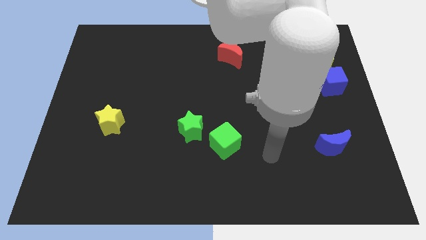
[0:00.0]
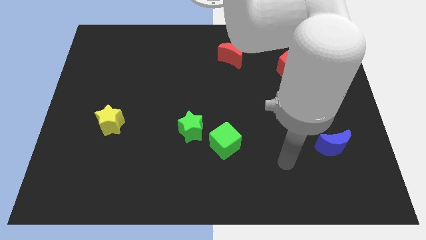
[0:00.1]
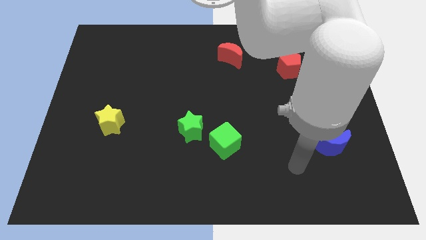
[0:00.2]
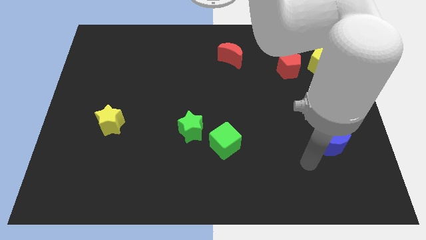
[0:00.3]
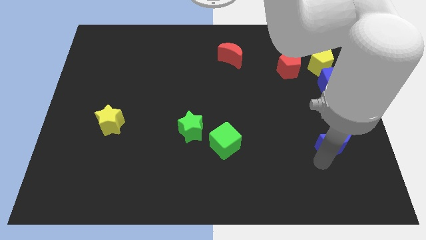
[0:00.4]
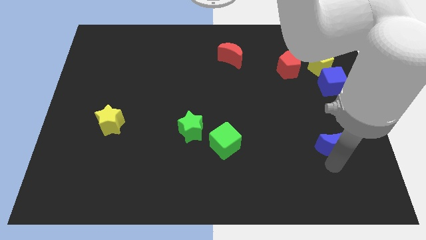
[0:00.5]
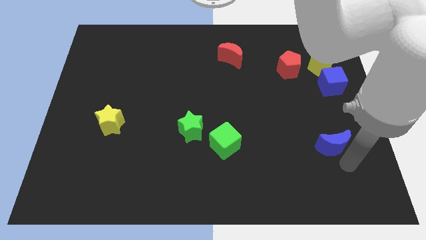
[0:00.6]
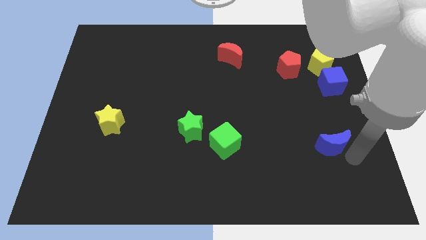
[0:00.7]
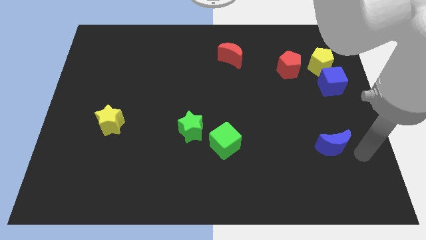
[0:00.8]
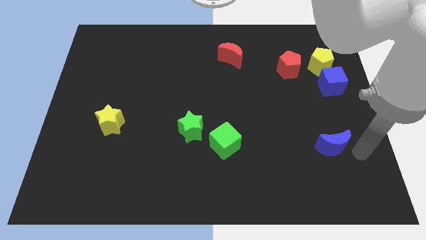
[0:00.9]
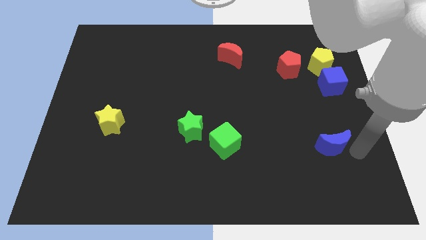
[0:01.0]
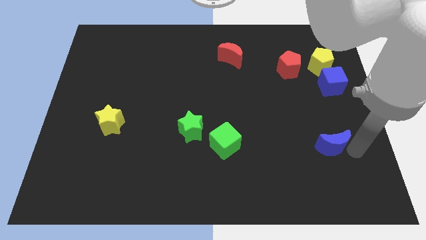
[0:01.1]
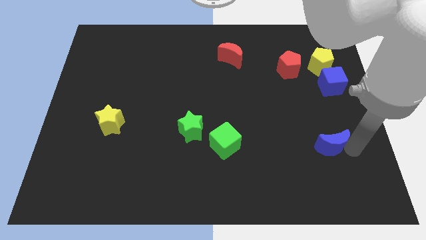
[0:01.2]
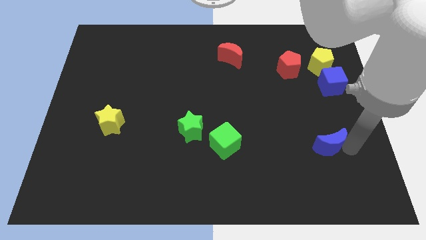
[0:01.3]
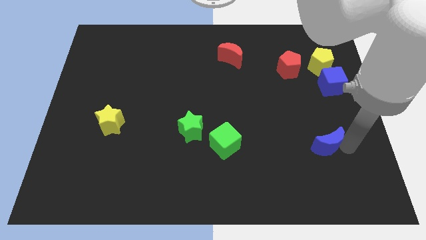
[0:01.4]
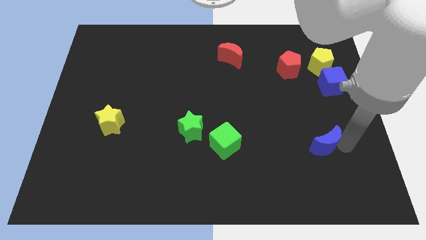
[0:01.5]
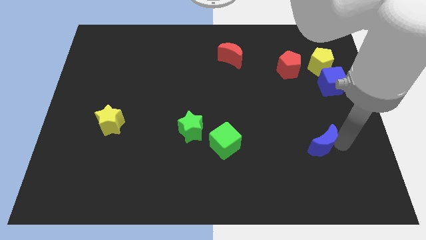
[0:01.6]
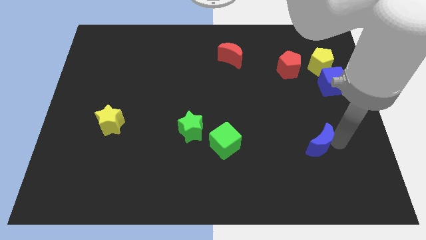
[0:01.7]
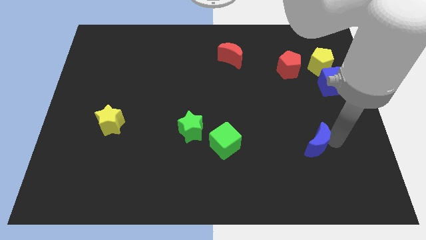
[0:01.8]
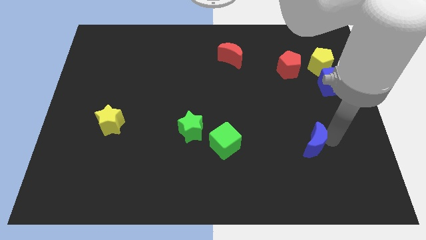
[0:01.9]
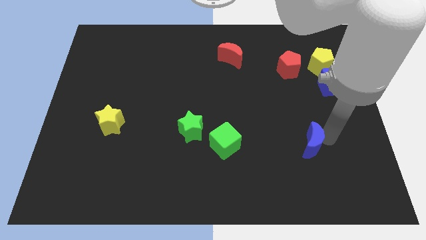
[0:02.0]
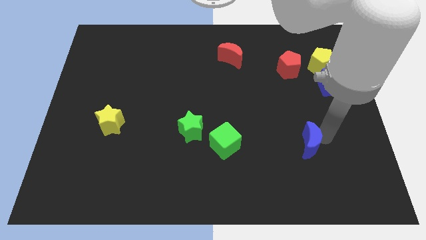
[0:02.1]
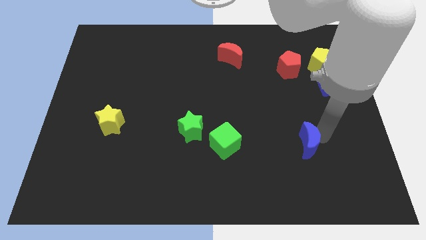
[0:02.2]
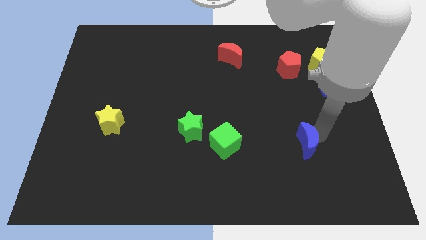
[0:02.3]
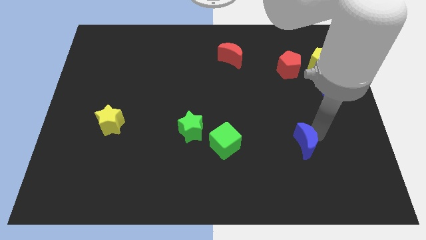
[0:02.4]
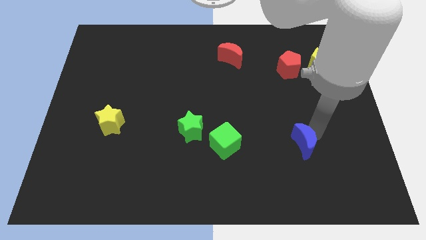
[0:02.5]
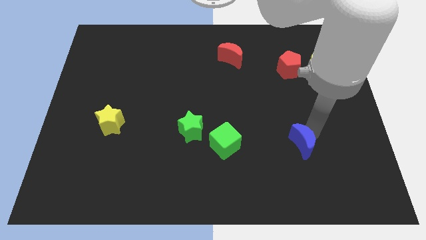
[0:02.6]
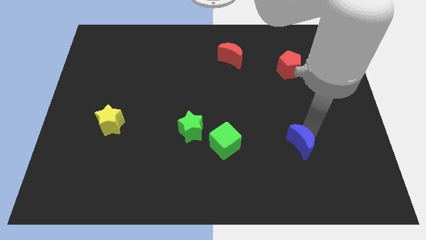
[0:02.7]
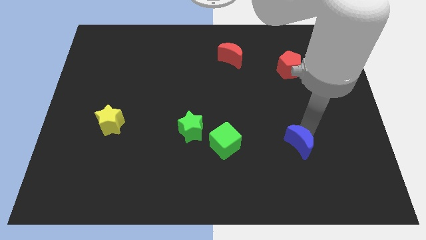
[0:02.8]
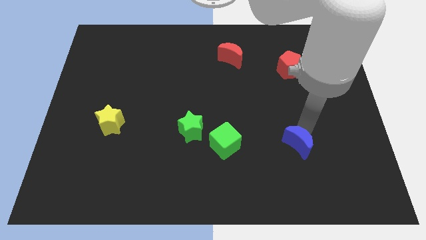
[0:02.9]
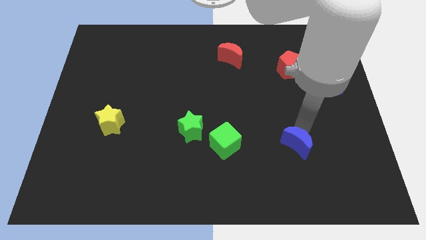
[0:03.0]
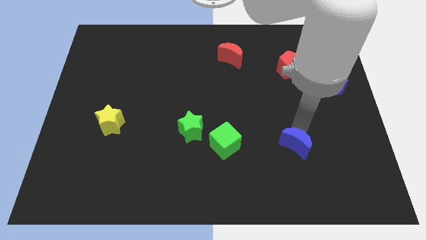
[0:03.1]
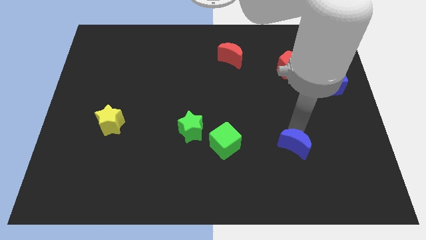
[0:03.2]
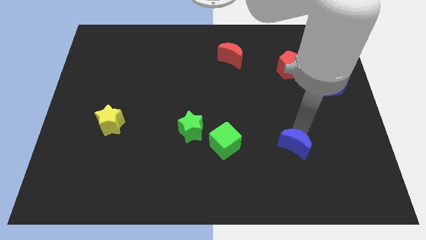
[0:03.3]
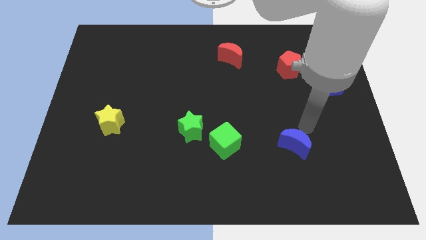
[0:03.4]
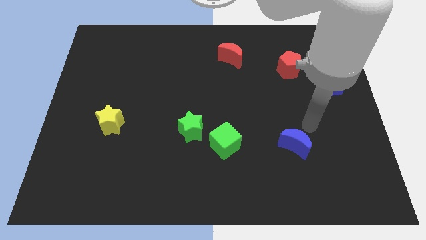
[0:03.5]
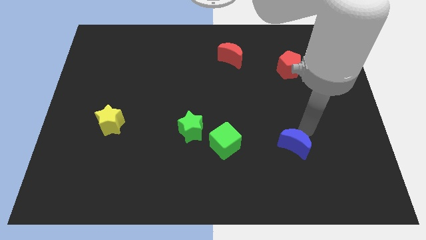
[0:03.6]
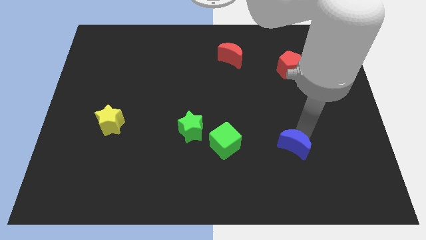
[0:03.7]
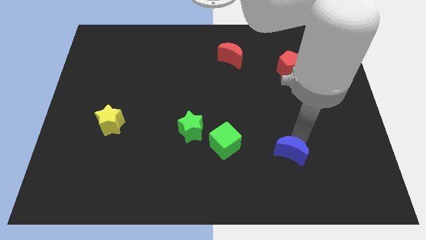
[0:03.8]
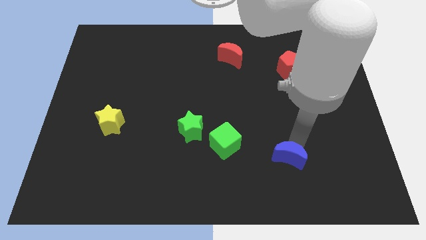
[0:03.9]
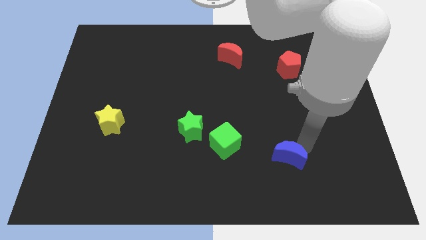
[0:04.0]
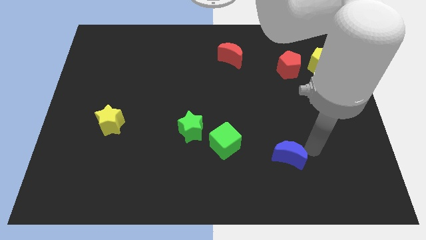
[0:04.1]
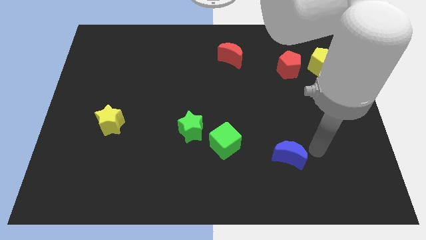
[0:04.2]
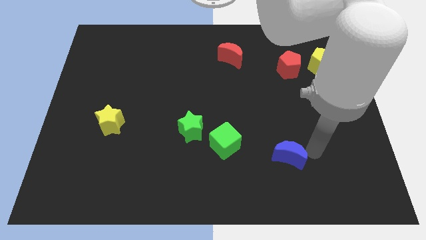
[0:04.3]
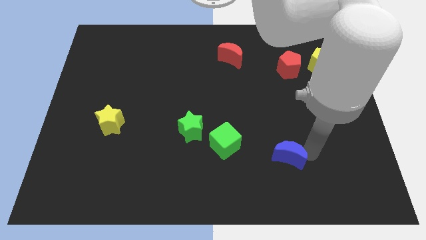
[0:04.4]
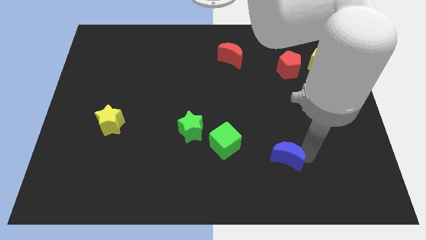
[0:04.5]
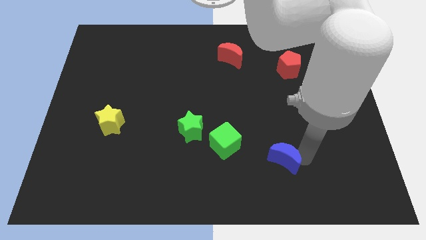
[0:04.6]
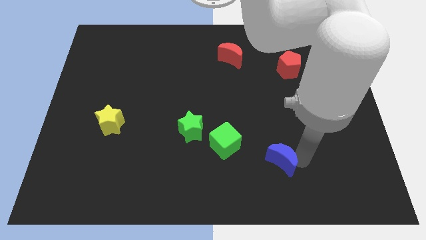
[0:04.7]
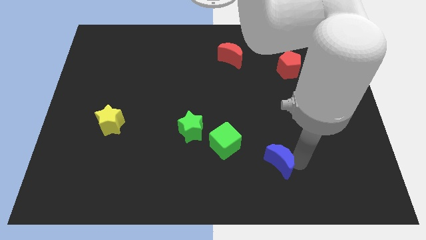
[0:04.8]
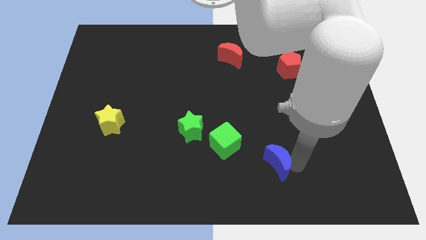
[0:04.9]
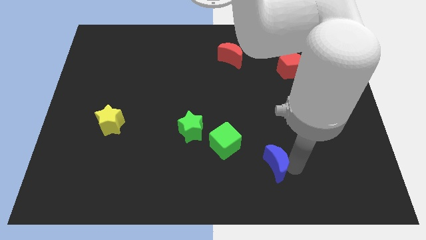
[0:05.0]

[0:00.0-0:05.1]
slide the blue moon to the bottom right of the green cube

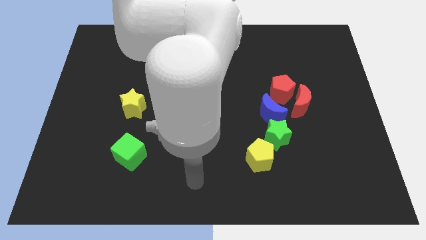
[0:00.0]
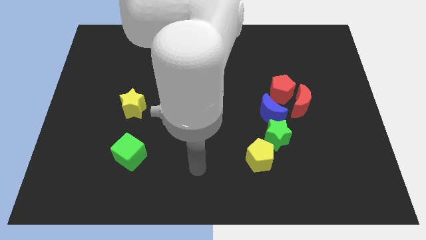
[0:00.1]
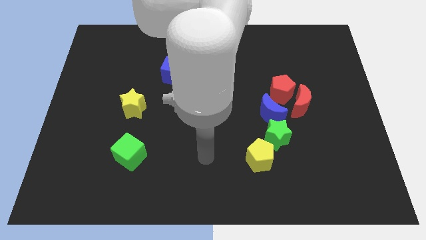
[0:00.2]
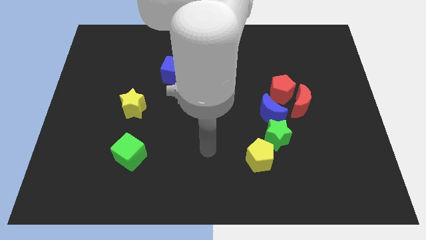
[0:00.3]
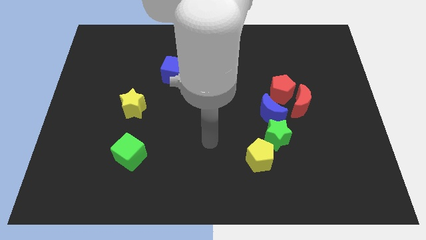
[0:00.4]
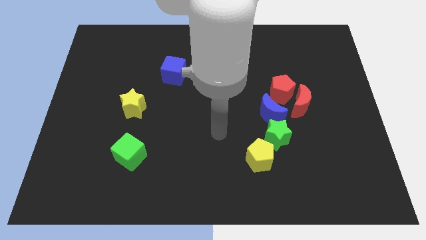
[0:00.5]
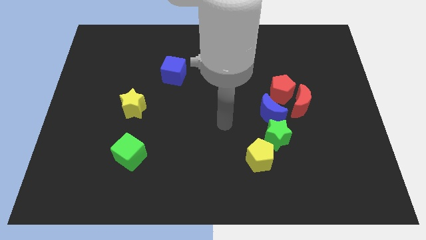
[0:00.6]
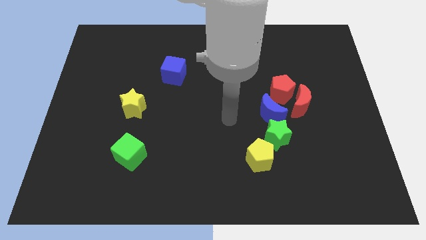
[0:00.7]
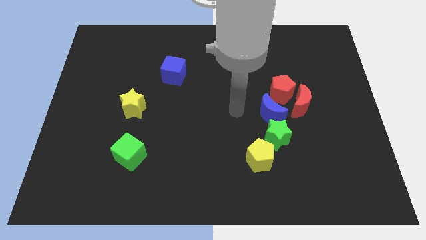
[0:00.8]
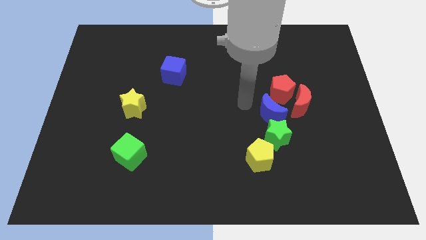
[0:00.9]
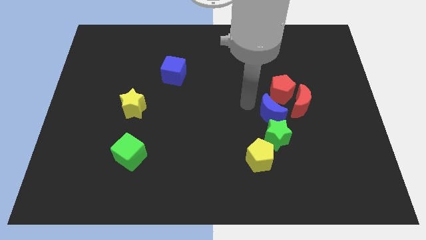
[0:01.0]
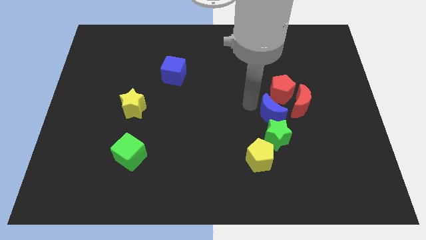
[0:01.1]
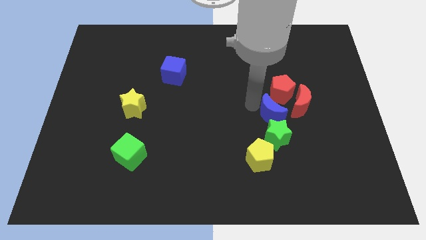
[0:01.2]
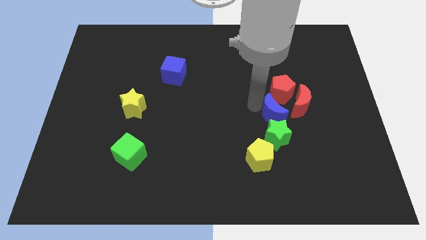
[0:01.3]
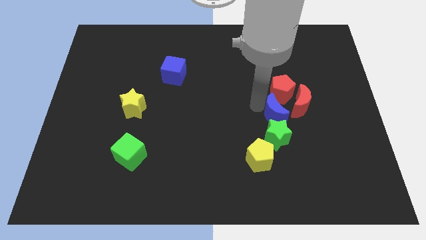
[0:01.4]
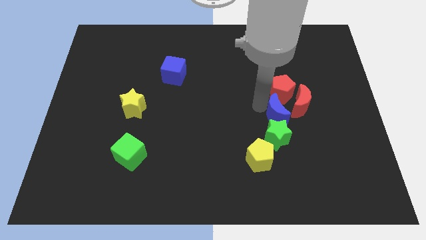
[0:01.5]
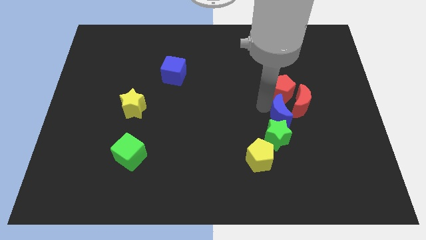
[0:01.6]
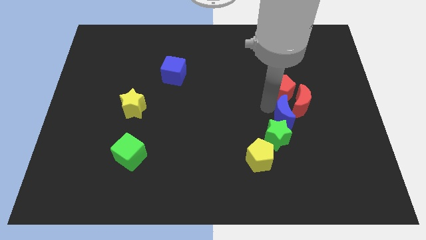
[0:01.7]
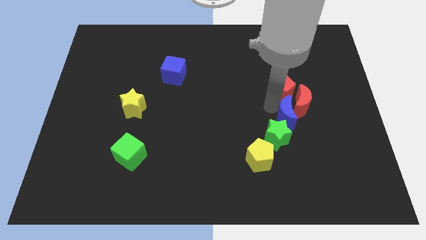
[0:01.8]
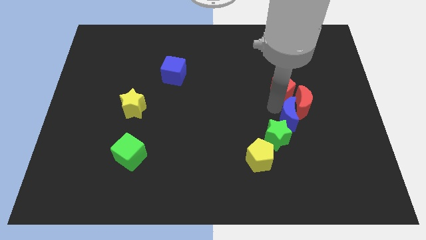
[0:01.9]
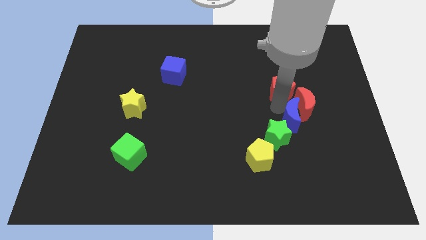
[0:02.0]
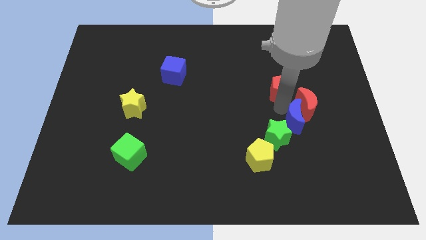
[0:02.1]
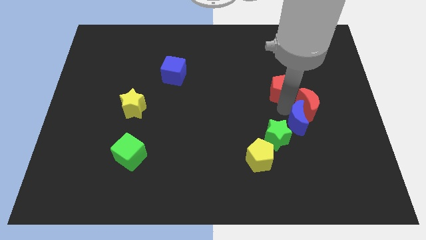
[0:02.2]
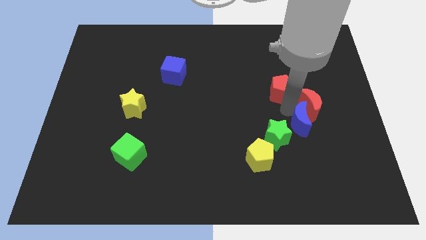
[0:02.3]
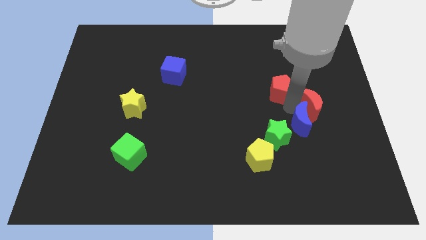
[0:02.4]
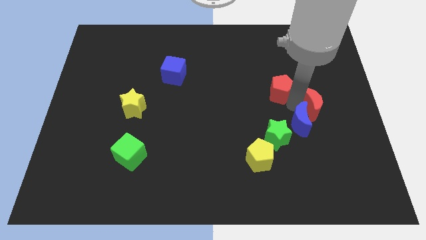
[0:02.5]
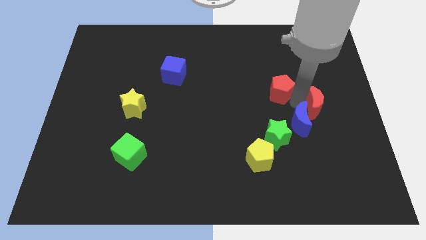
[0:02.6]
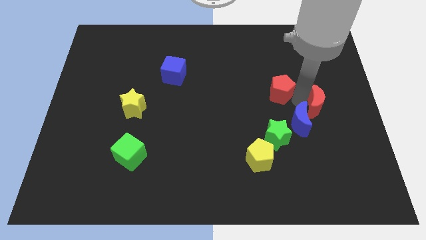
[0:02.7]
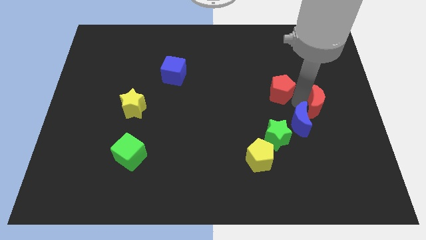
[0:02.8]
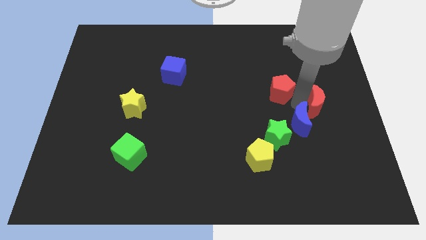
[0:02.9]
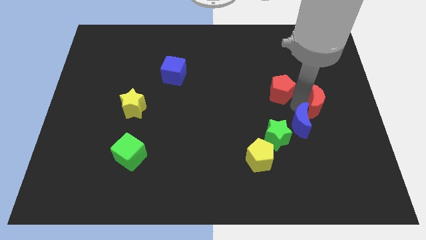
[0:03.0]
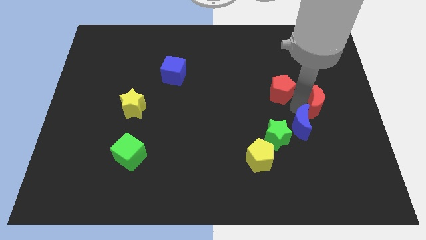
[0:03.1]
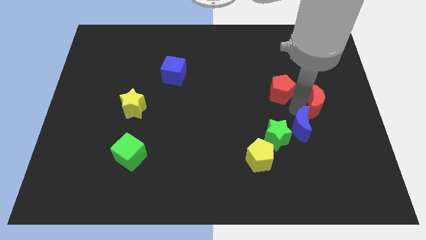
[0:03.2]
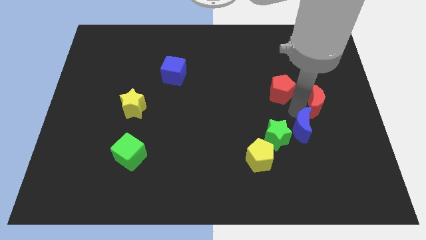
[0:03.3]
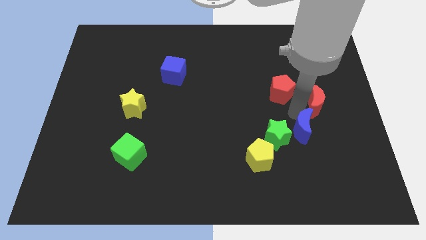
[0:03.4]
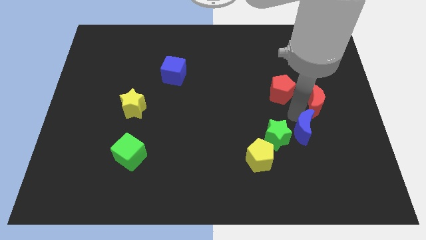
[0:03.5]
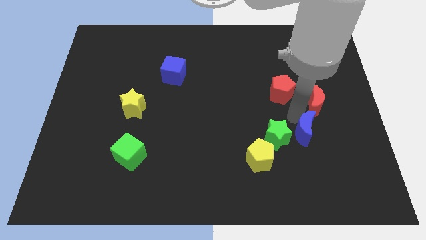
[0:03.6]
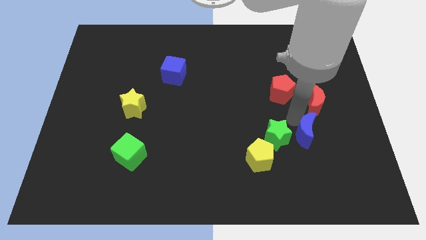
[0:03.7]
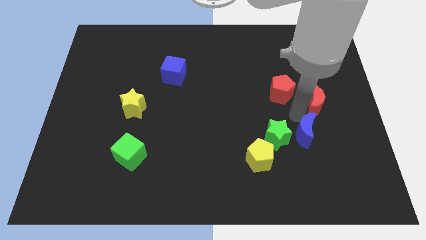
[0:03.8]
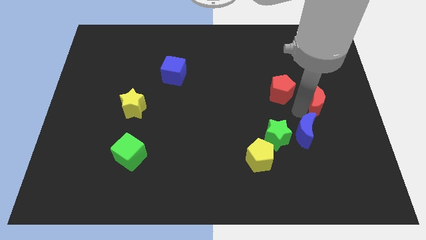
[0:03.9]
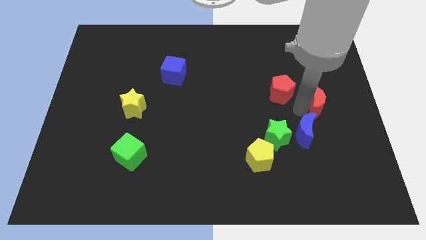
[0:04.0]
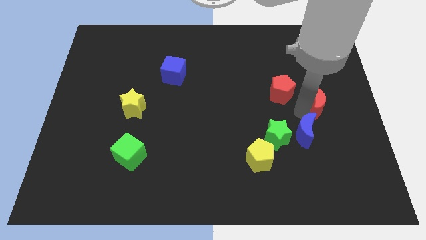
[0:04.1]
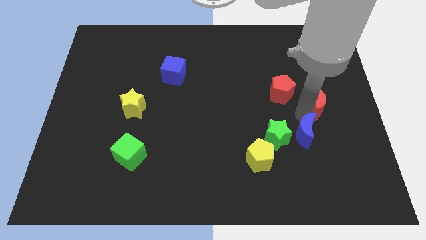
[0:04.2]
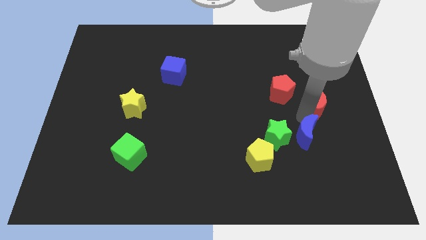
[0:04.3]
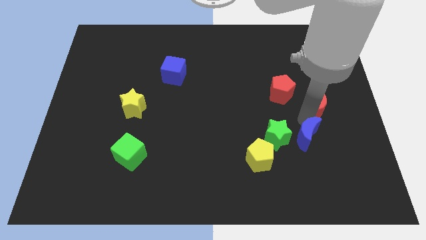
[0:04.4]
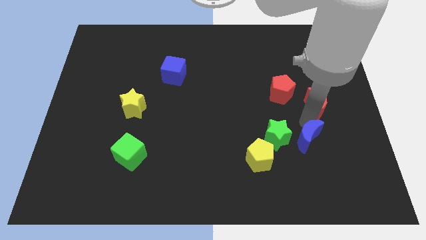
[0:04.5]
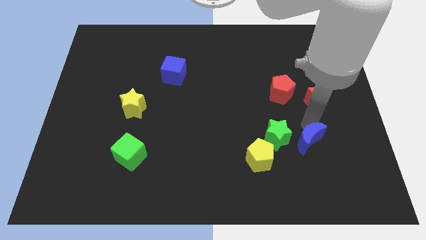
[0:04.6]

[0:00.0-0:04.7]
move the blue moon to the right side of the yellow pentagon
